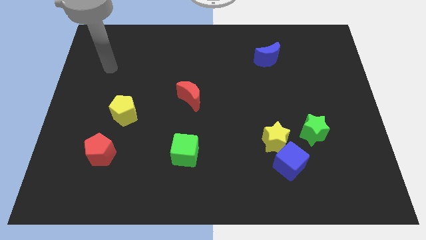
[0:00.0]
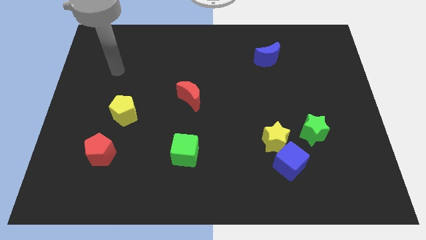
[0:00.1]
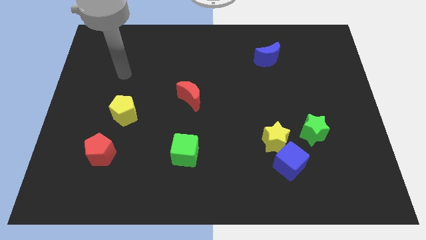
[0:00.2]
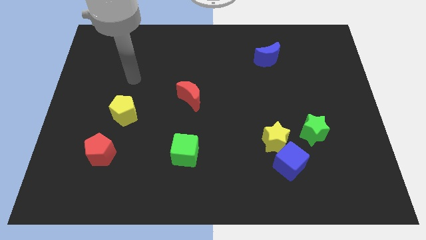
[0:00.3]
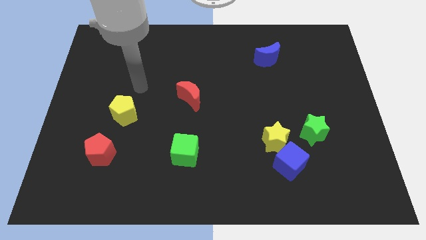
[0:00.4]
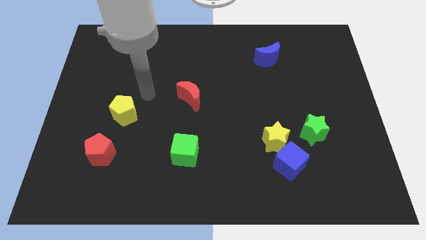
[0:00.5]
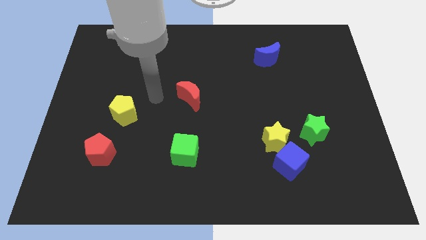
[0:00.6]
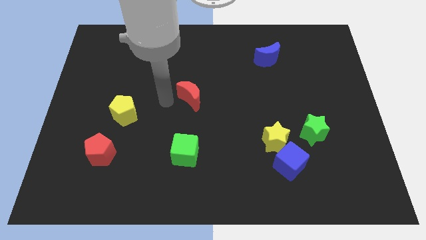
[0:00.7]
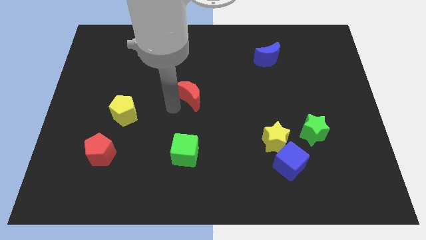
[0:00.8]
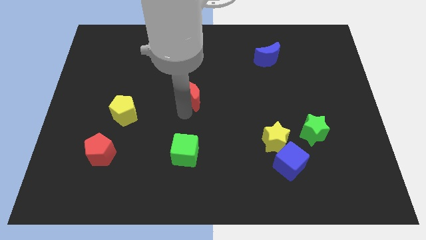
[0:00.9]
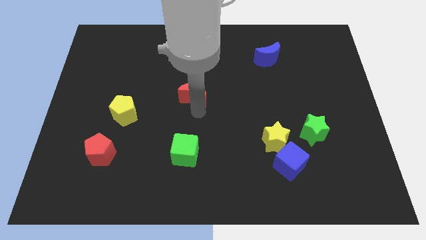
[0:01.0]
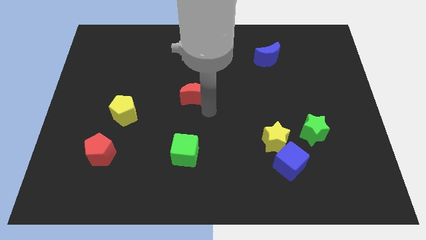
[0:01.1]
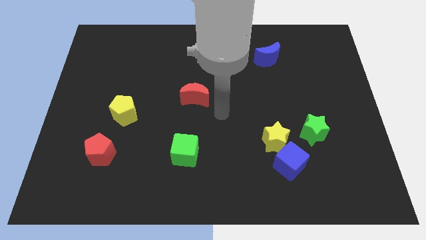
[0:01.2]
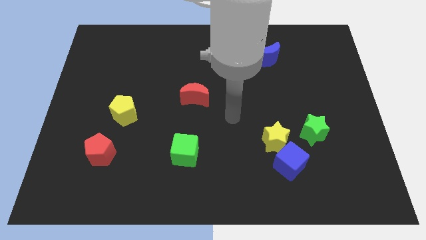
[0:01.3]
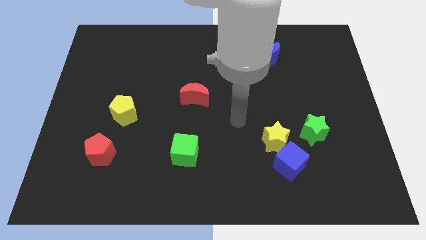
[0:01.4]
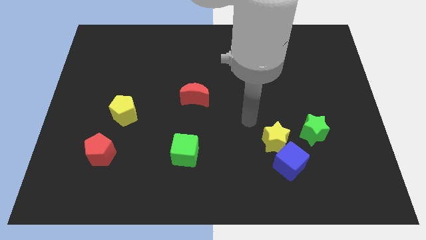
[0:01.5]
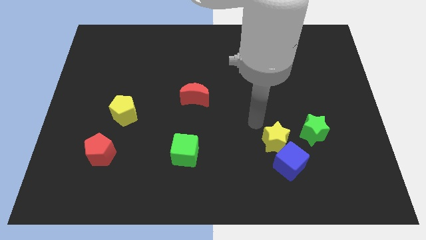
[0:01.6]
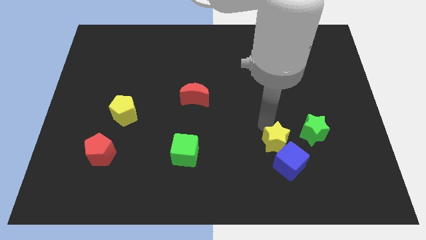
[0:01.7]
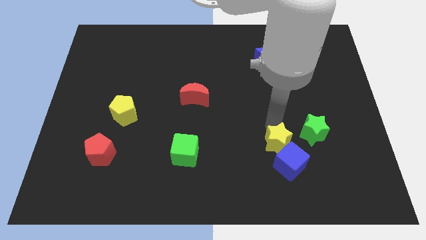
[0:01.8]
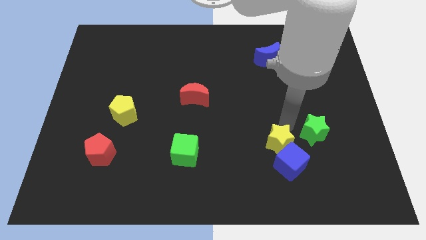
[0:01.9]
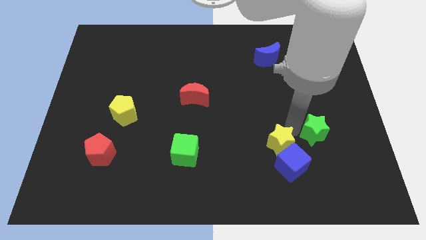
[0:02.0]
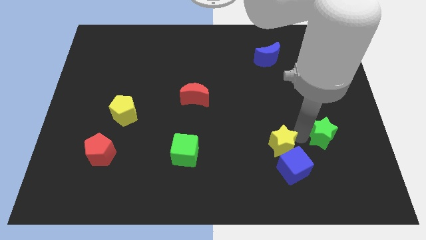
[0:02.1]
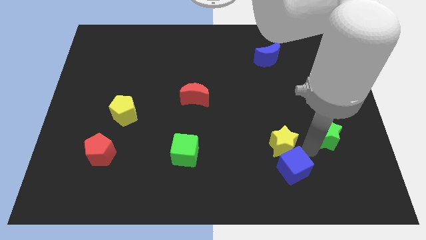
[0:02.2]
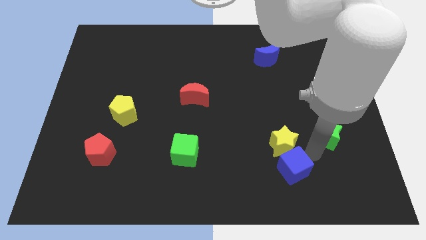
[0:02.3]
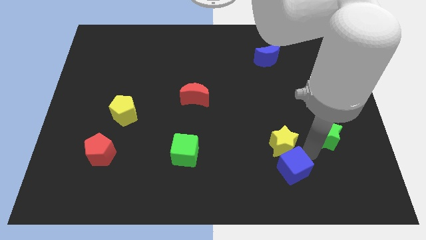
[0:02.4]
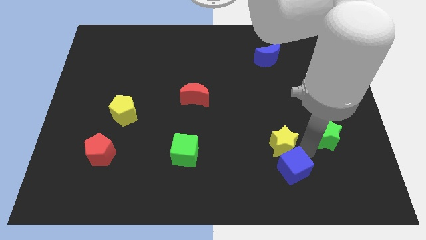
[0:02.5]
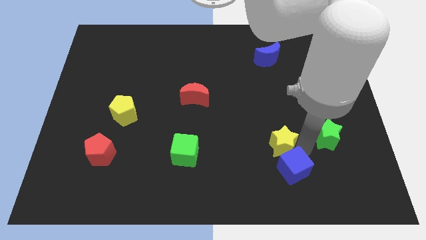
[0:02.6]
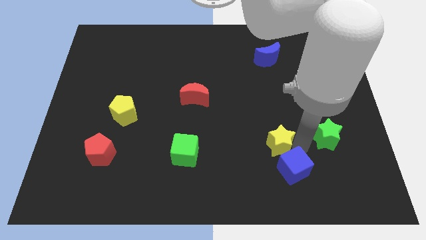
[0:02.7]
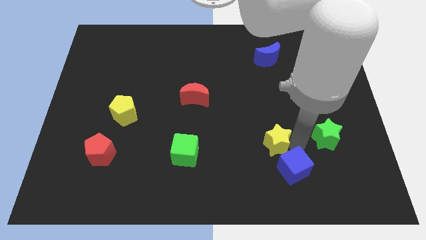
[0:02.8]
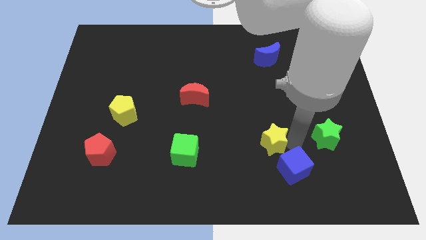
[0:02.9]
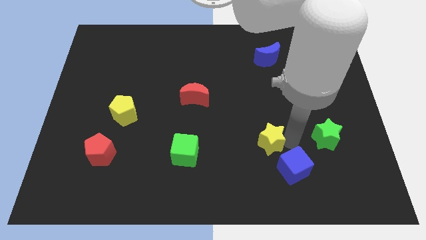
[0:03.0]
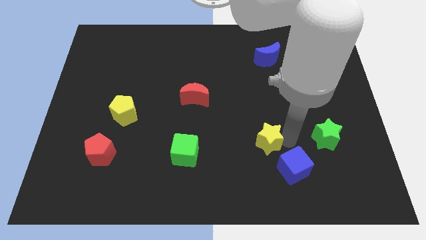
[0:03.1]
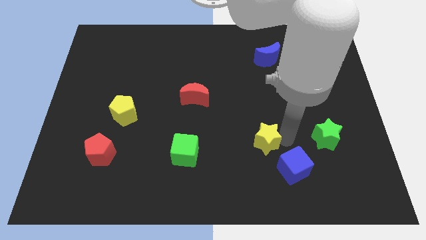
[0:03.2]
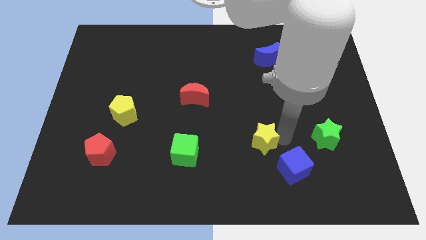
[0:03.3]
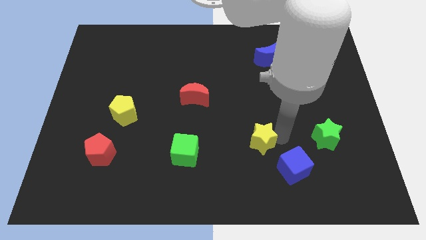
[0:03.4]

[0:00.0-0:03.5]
separate the yellow star from the blue cube and green star

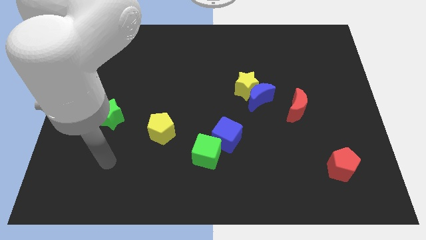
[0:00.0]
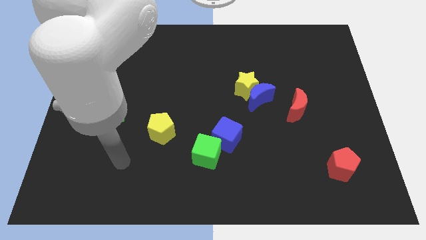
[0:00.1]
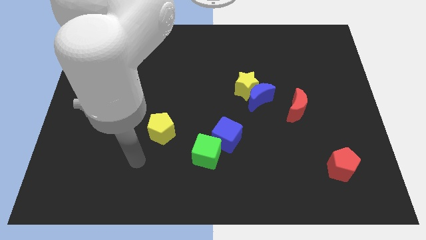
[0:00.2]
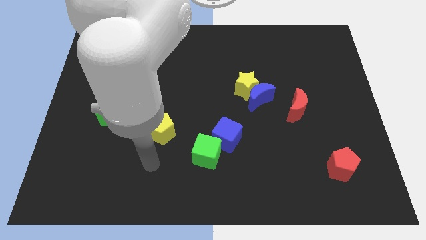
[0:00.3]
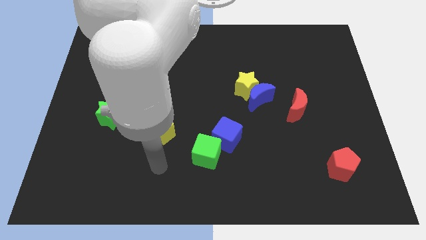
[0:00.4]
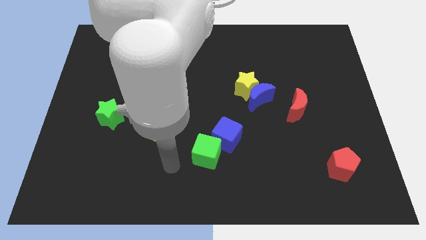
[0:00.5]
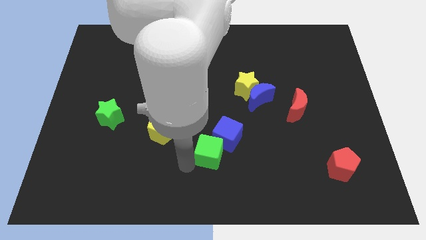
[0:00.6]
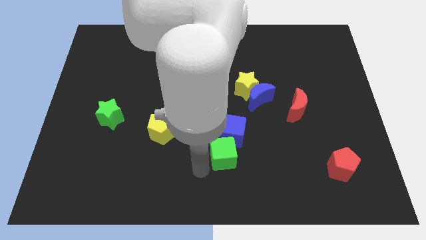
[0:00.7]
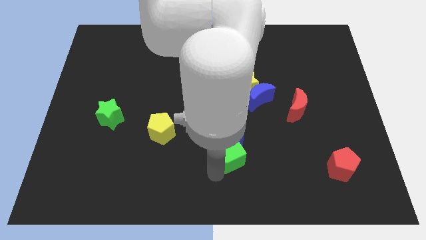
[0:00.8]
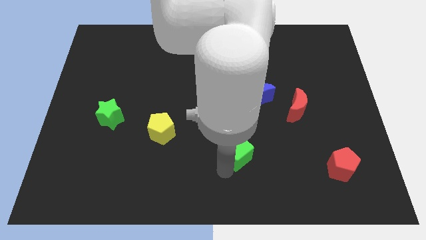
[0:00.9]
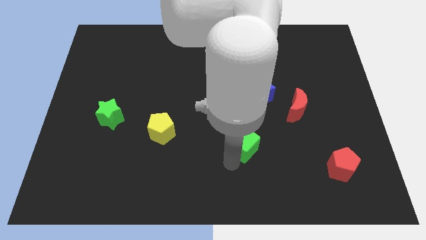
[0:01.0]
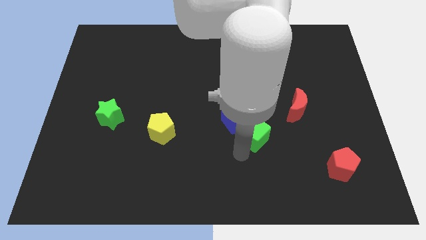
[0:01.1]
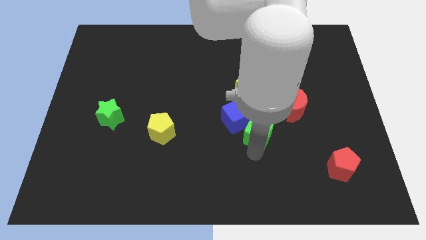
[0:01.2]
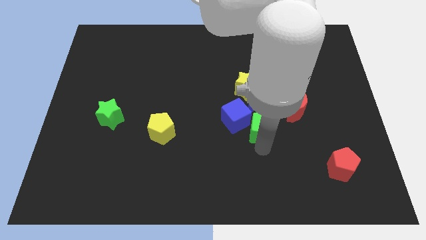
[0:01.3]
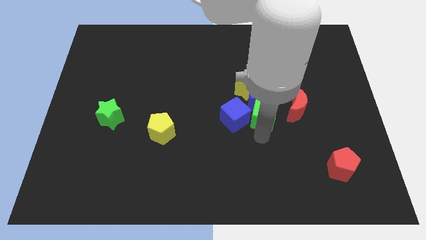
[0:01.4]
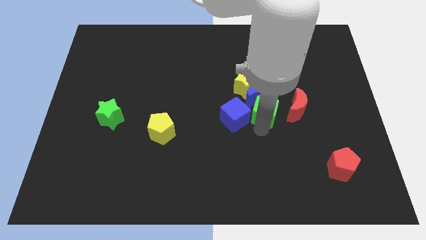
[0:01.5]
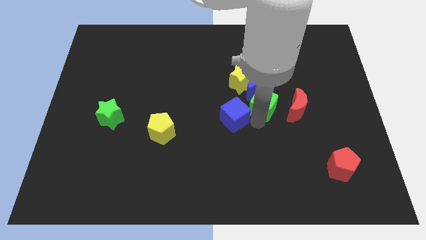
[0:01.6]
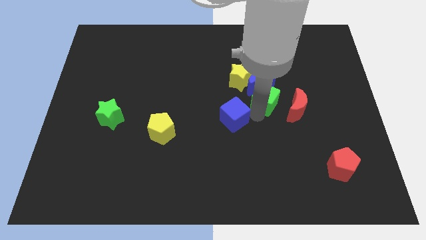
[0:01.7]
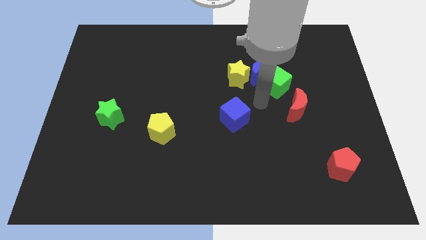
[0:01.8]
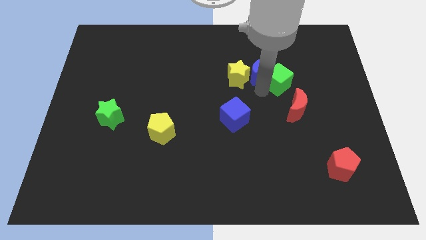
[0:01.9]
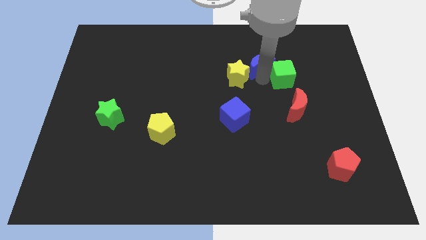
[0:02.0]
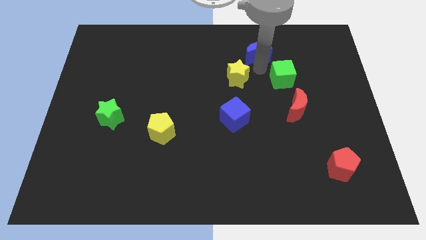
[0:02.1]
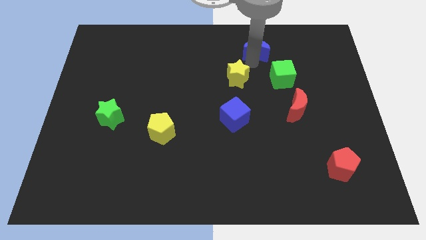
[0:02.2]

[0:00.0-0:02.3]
pull the yellow star apart from the blue moon

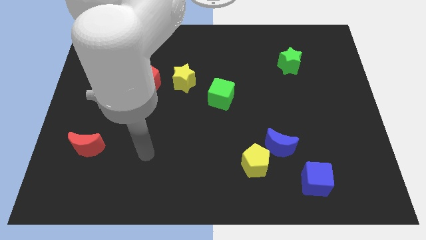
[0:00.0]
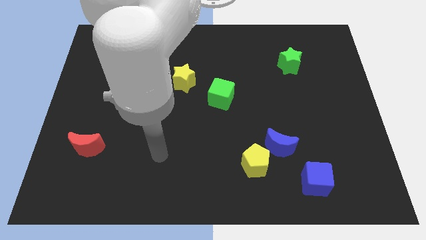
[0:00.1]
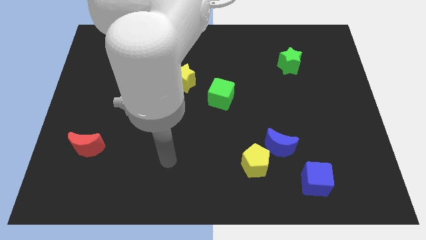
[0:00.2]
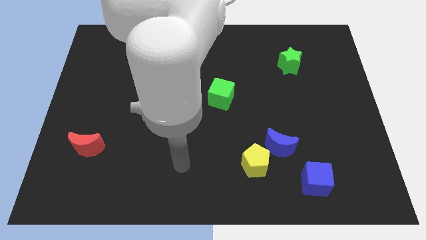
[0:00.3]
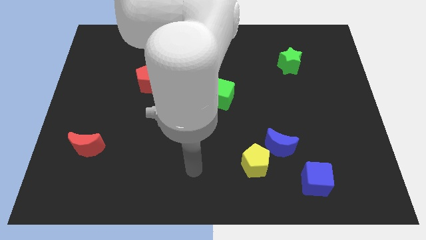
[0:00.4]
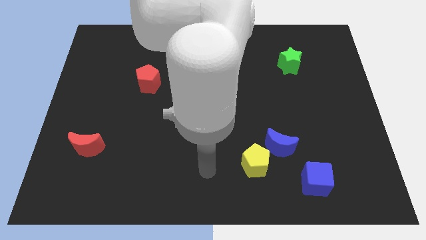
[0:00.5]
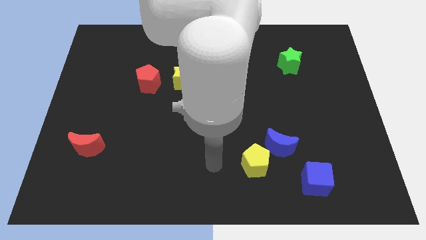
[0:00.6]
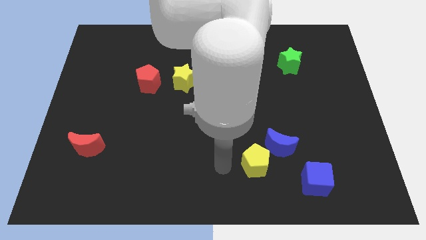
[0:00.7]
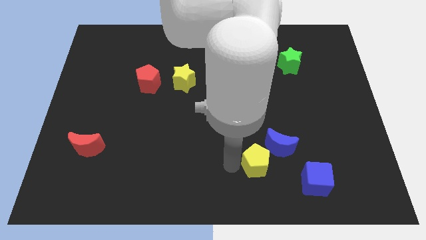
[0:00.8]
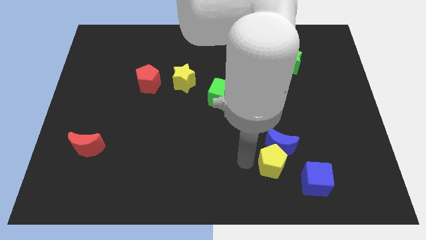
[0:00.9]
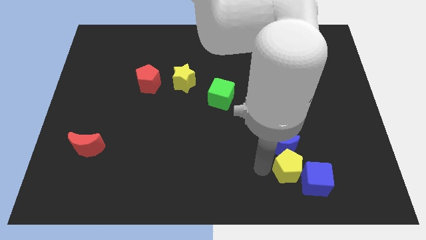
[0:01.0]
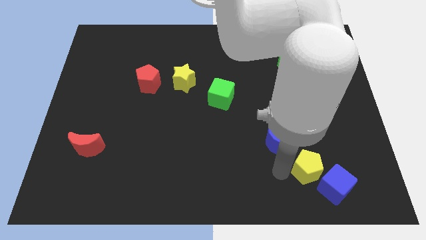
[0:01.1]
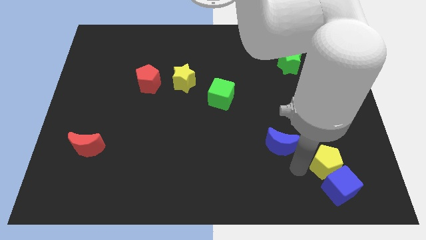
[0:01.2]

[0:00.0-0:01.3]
separate the blue moon from the yellow pentagon

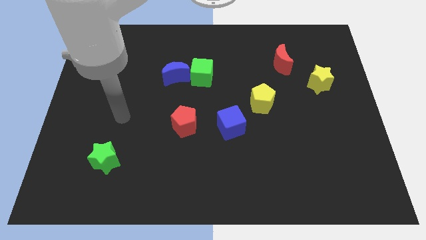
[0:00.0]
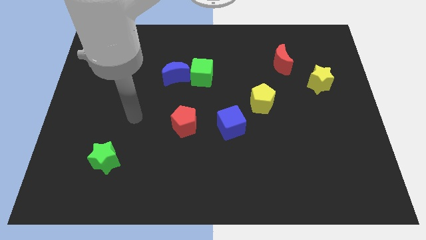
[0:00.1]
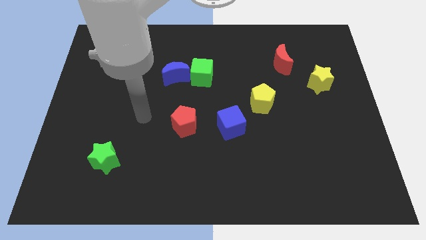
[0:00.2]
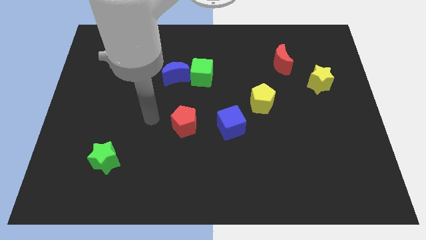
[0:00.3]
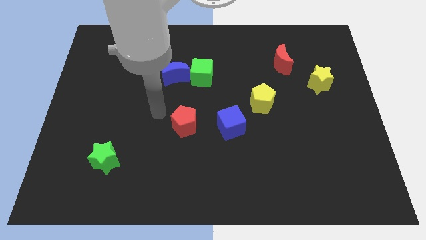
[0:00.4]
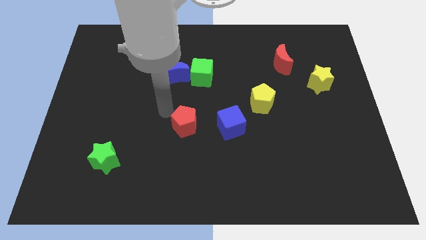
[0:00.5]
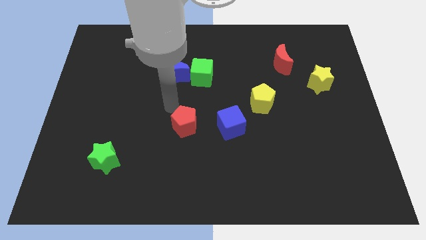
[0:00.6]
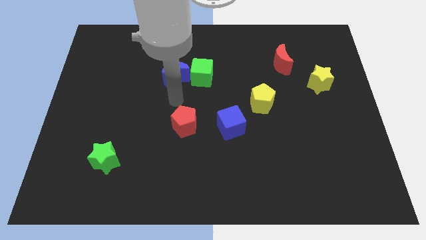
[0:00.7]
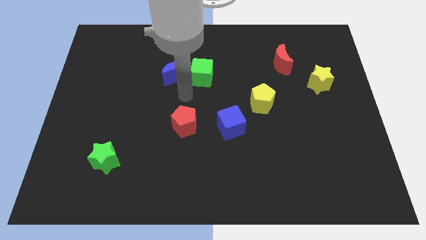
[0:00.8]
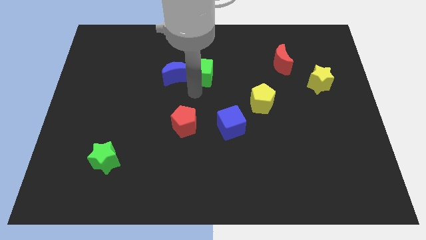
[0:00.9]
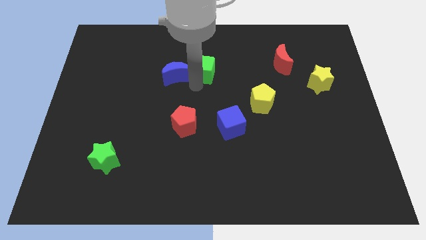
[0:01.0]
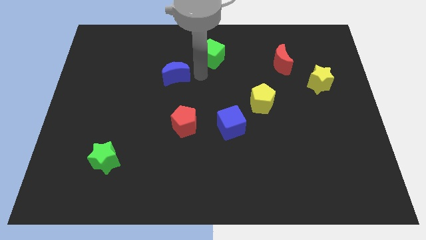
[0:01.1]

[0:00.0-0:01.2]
pull the blue moon apart from the green cube

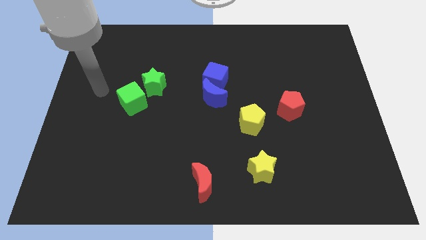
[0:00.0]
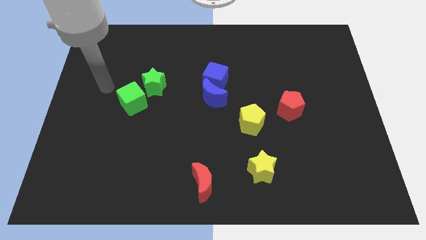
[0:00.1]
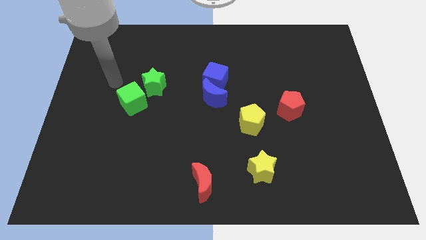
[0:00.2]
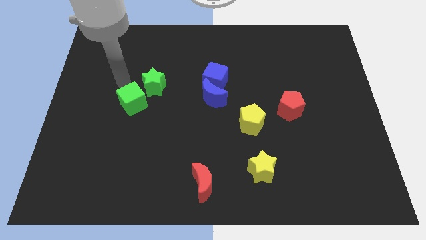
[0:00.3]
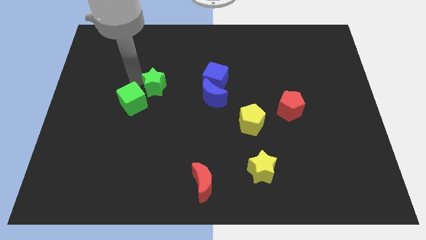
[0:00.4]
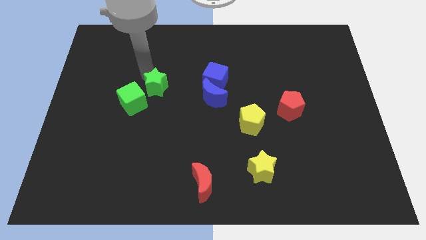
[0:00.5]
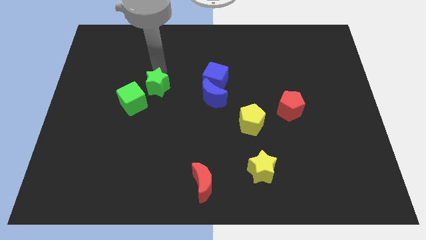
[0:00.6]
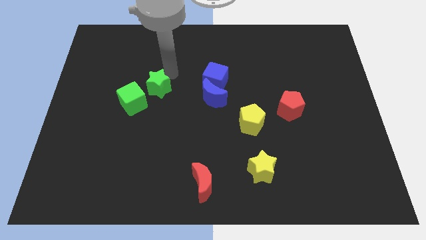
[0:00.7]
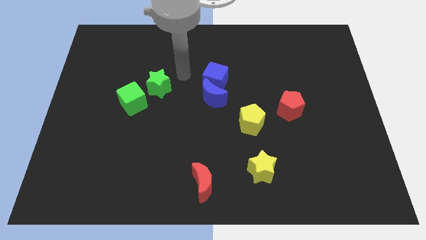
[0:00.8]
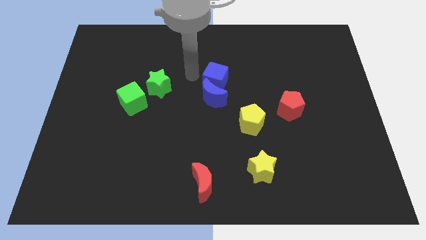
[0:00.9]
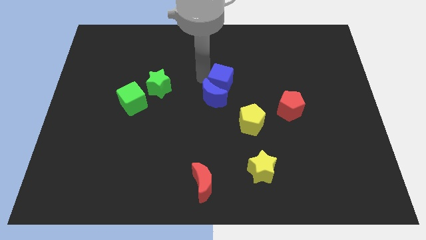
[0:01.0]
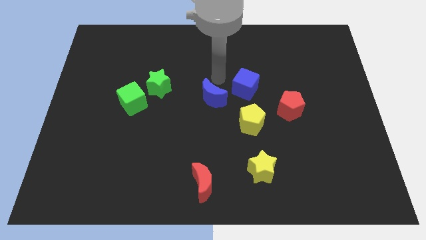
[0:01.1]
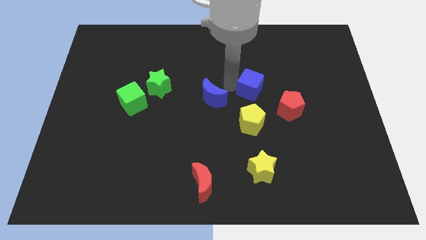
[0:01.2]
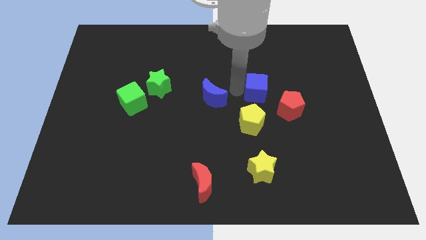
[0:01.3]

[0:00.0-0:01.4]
pull the blue moon apart from the blue cube
